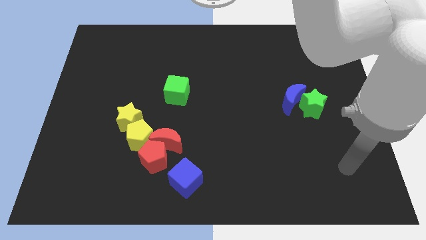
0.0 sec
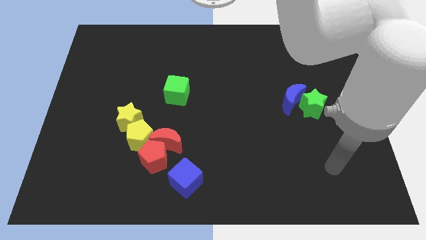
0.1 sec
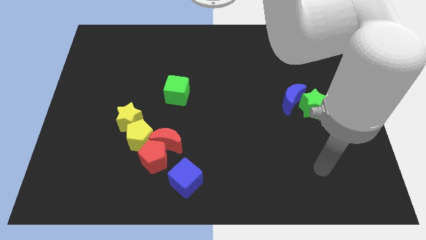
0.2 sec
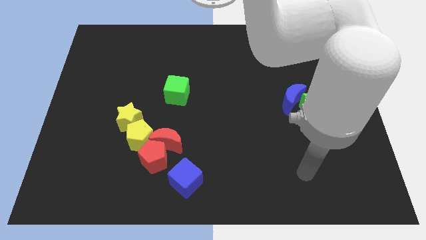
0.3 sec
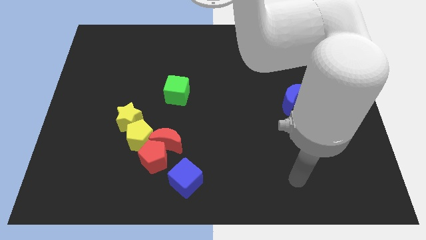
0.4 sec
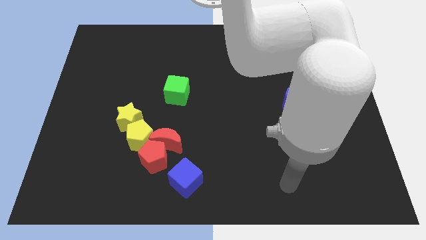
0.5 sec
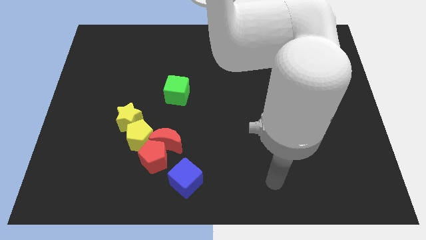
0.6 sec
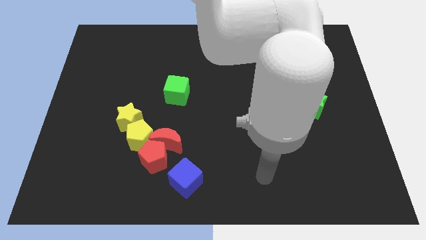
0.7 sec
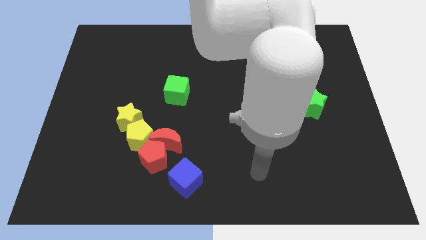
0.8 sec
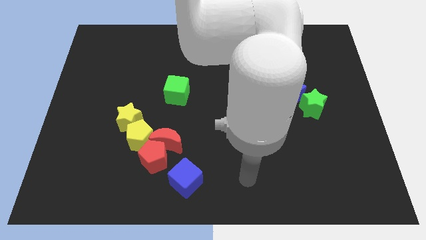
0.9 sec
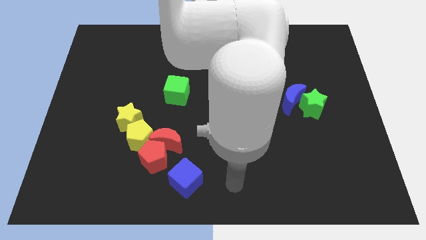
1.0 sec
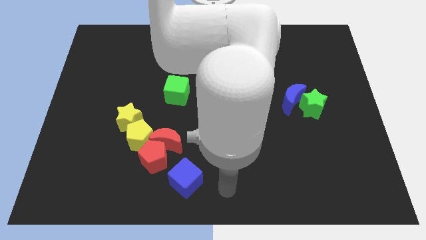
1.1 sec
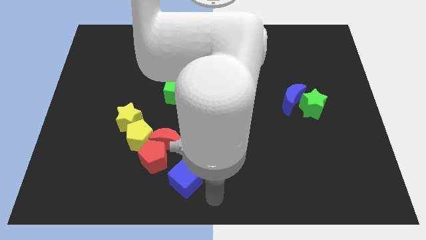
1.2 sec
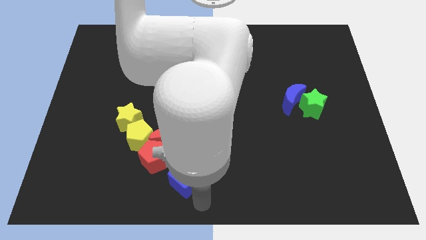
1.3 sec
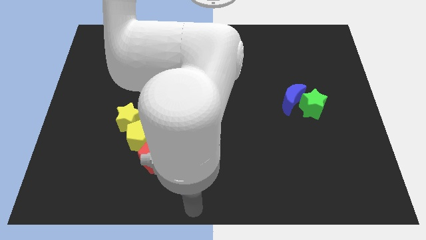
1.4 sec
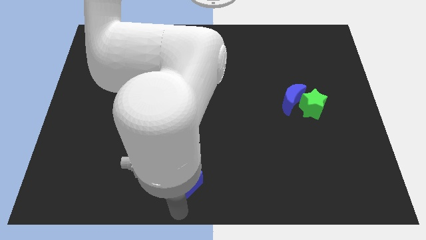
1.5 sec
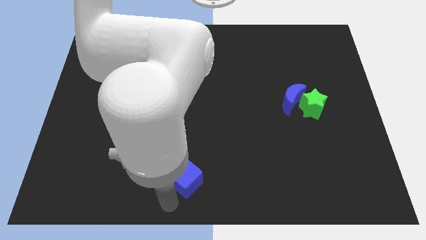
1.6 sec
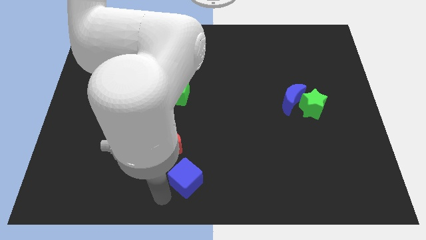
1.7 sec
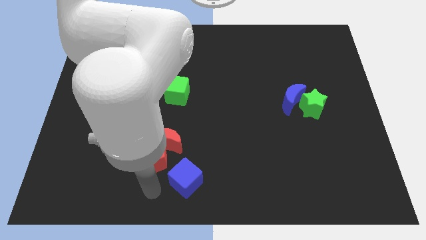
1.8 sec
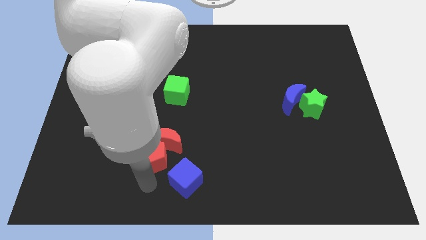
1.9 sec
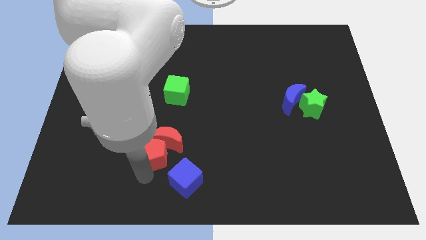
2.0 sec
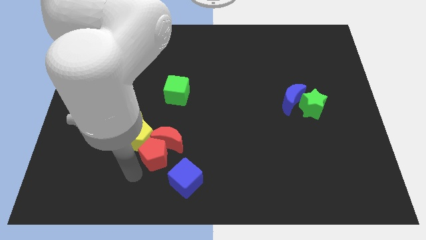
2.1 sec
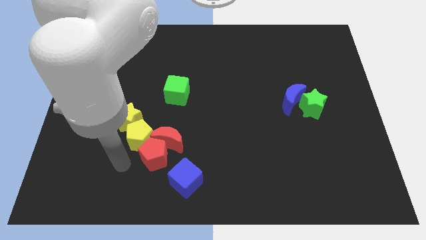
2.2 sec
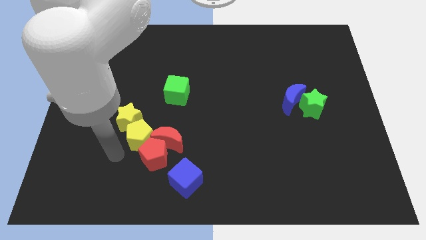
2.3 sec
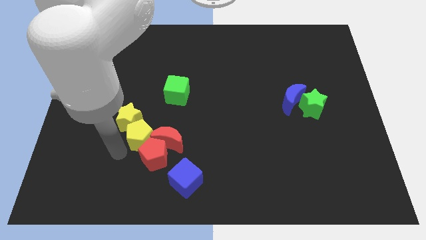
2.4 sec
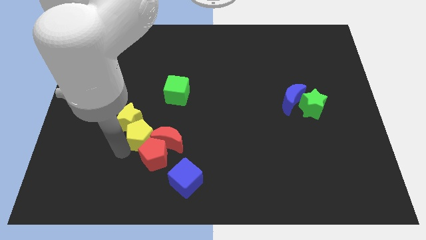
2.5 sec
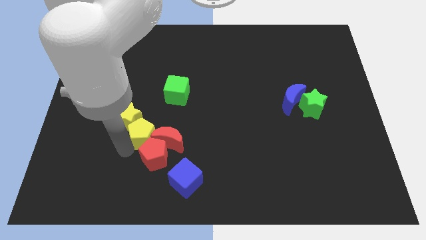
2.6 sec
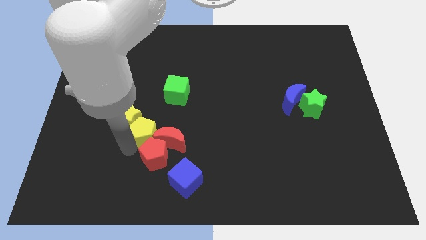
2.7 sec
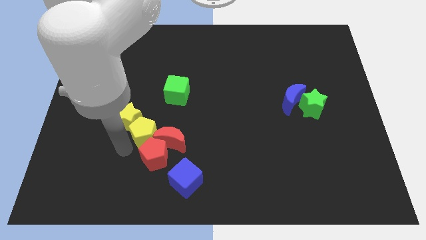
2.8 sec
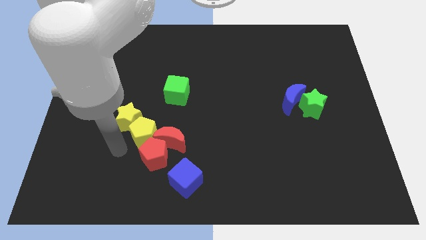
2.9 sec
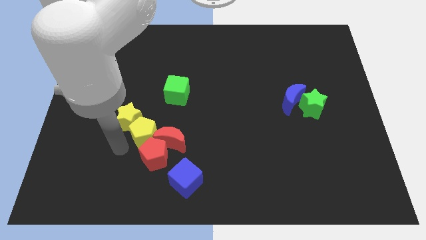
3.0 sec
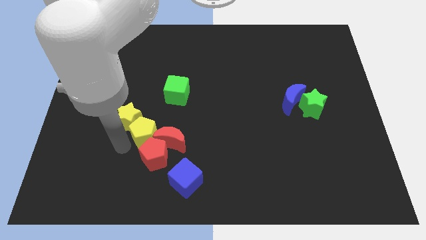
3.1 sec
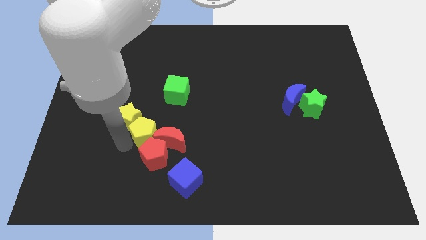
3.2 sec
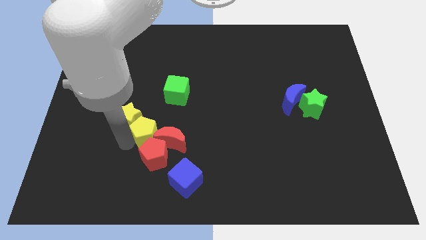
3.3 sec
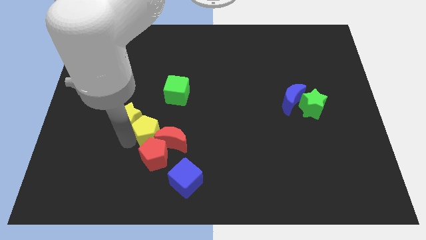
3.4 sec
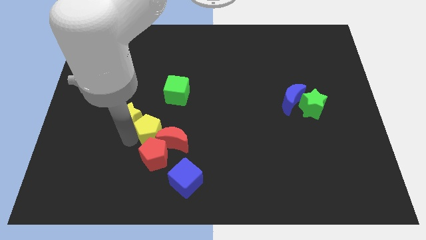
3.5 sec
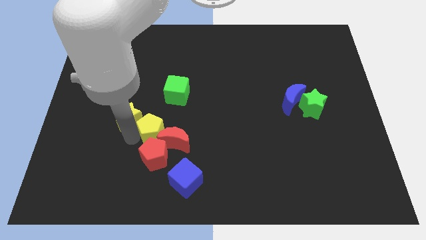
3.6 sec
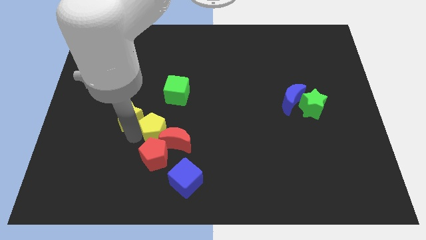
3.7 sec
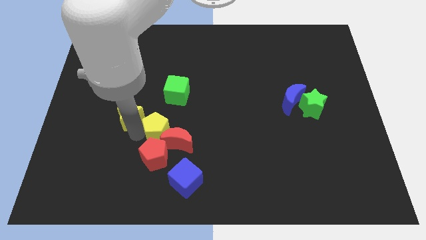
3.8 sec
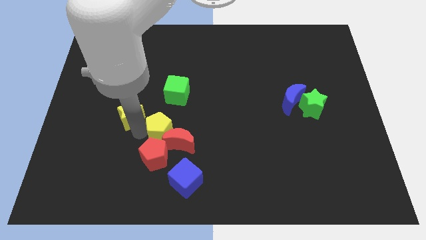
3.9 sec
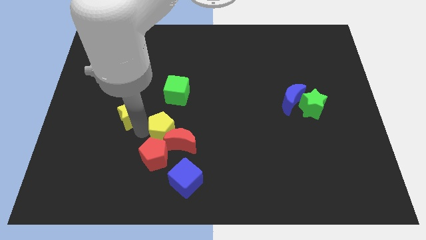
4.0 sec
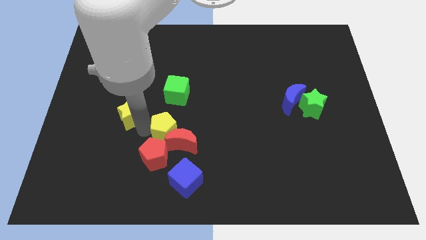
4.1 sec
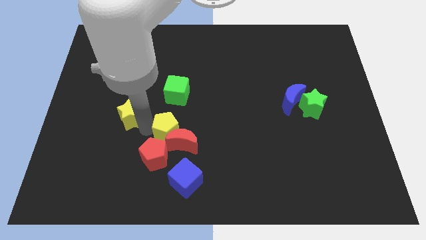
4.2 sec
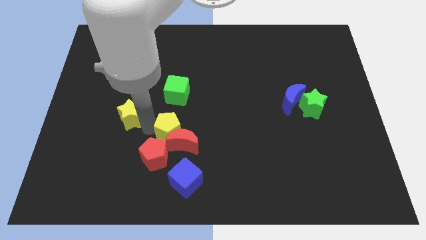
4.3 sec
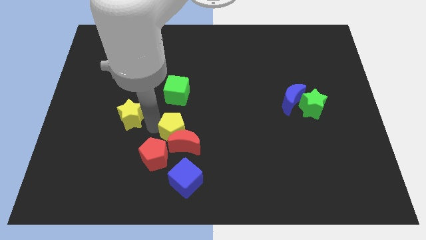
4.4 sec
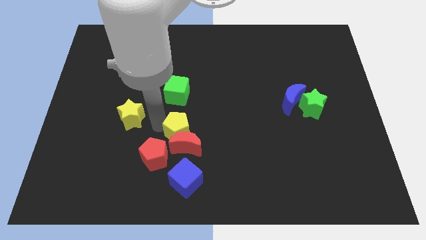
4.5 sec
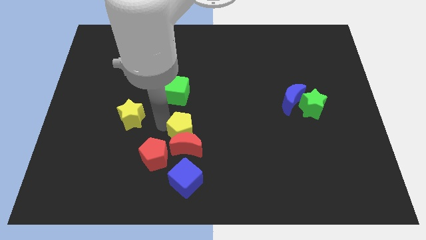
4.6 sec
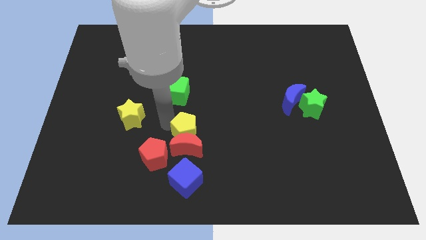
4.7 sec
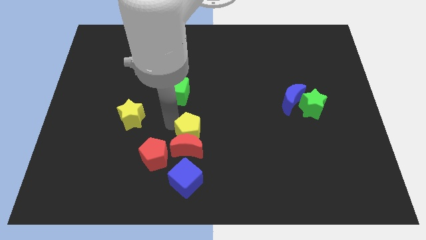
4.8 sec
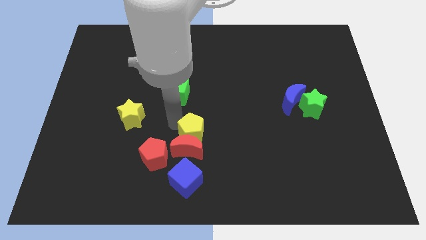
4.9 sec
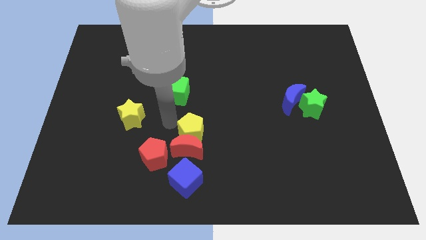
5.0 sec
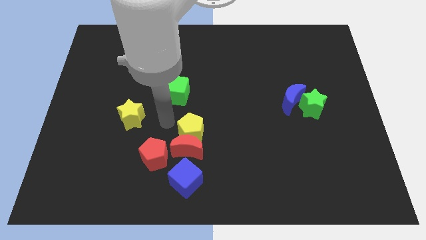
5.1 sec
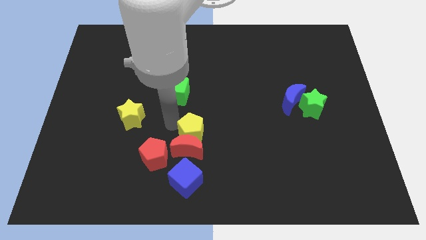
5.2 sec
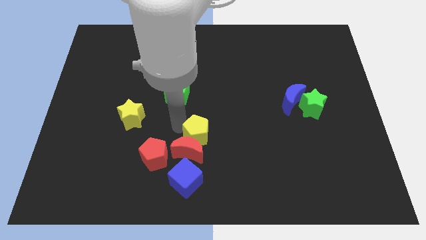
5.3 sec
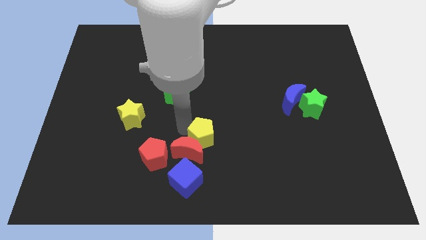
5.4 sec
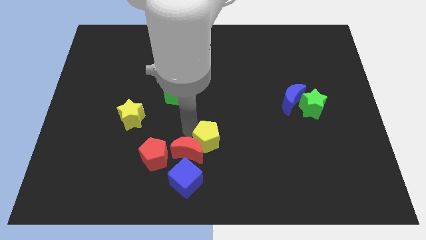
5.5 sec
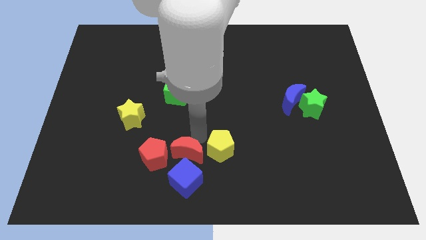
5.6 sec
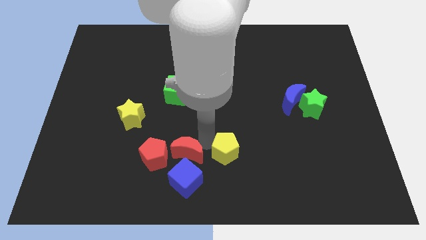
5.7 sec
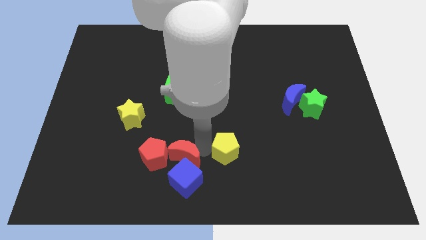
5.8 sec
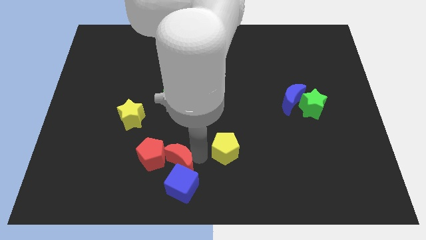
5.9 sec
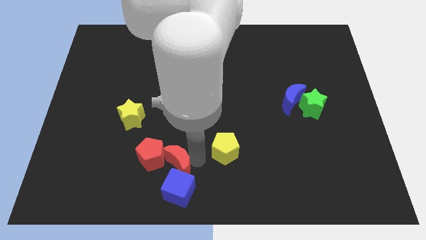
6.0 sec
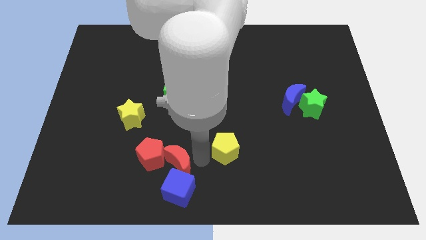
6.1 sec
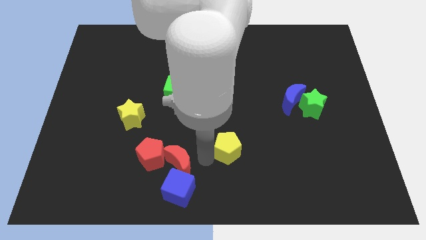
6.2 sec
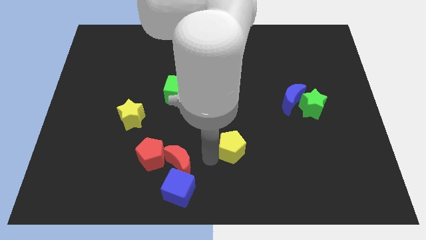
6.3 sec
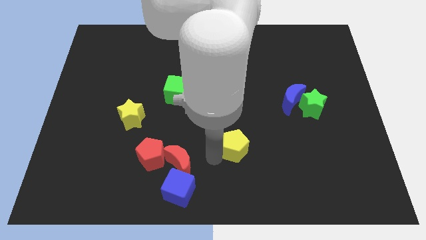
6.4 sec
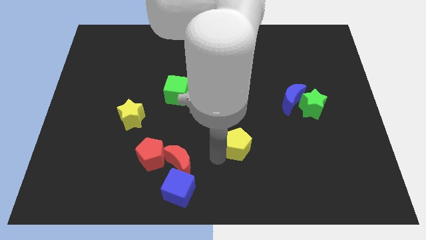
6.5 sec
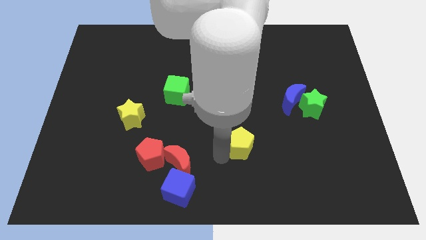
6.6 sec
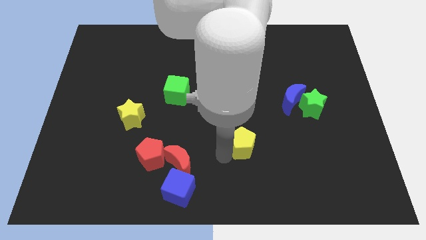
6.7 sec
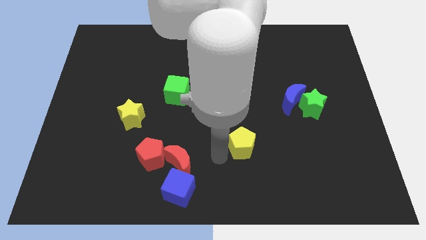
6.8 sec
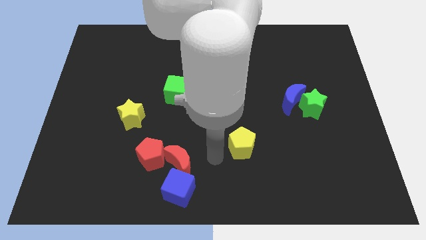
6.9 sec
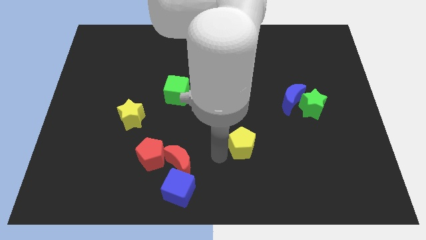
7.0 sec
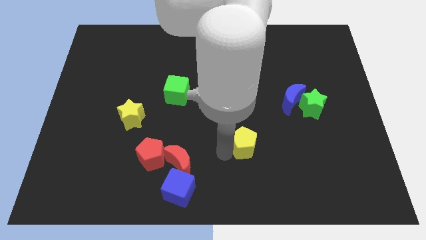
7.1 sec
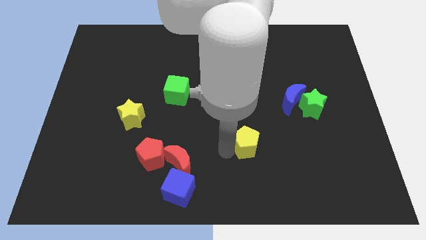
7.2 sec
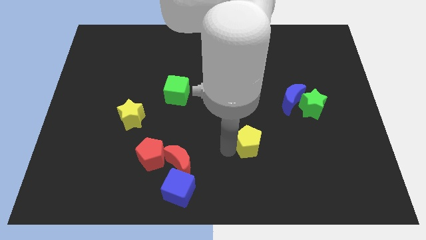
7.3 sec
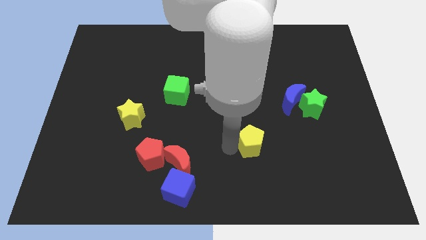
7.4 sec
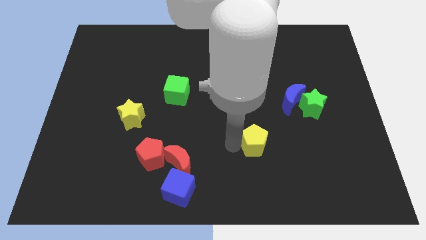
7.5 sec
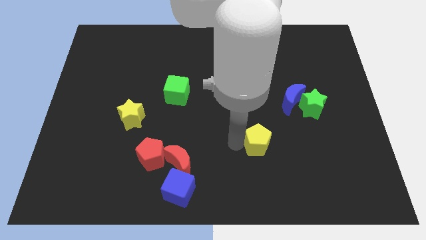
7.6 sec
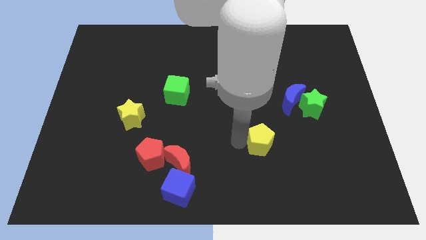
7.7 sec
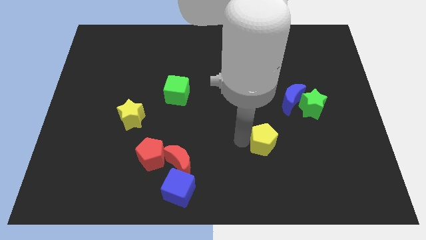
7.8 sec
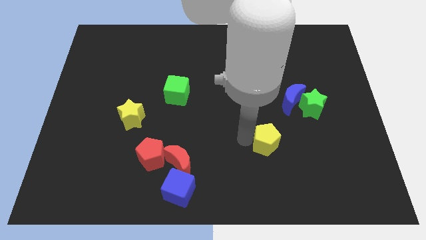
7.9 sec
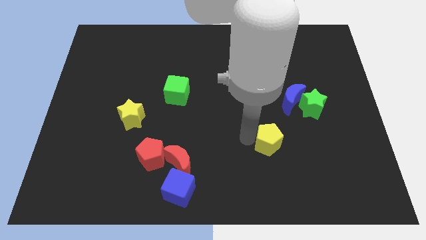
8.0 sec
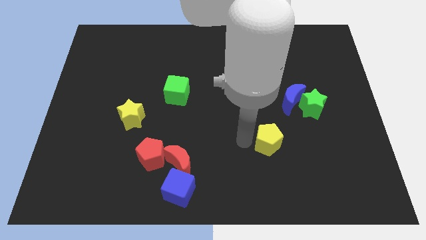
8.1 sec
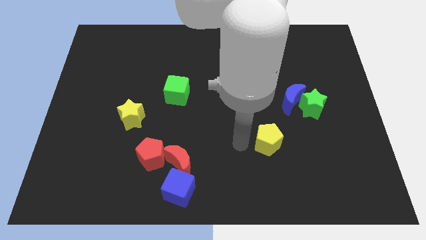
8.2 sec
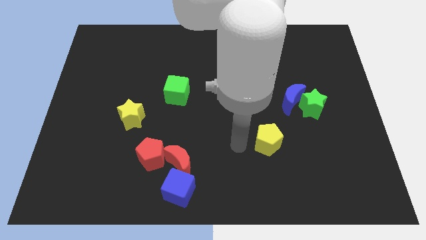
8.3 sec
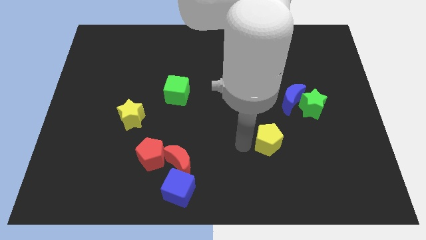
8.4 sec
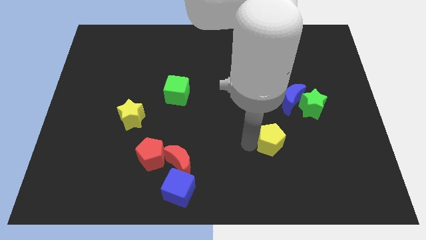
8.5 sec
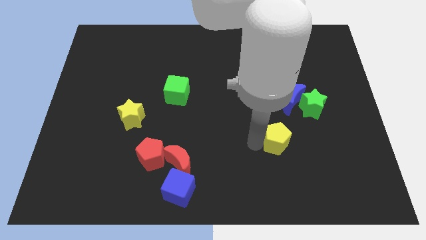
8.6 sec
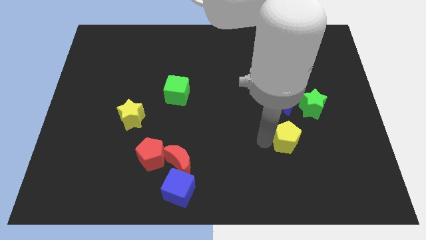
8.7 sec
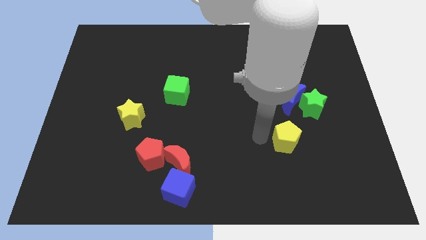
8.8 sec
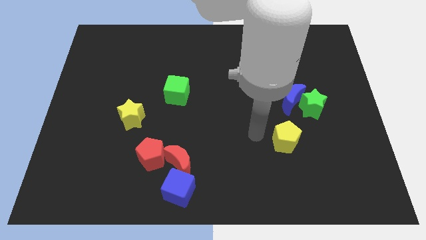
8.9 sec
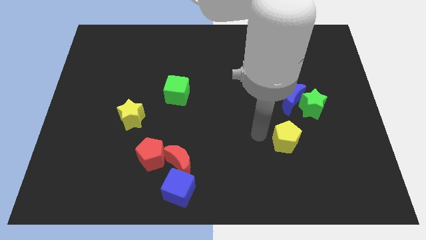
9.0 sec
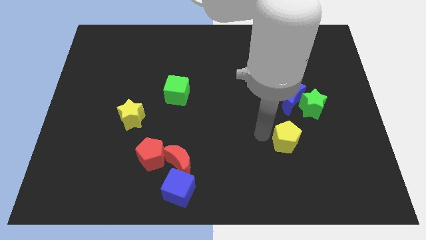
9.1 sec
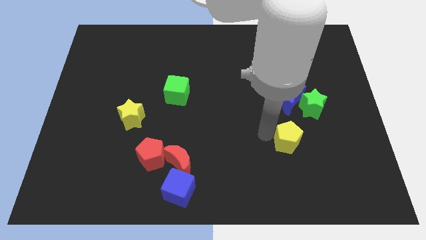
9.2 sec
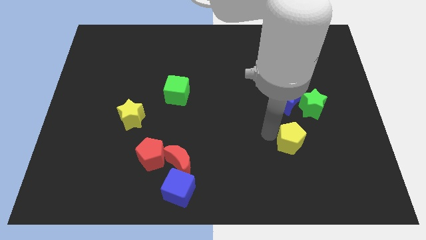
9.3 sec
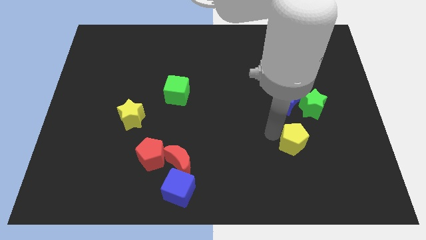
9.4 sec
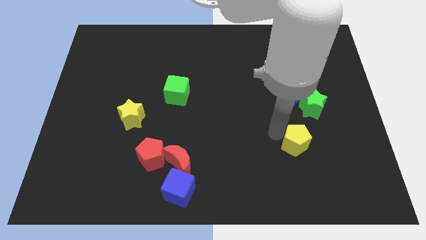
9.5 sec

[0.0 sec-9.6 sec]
move the yellow pentagon to the bottom of the green star
